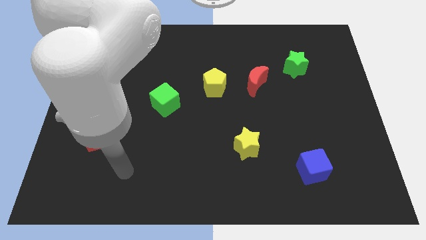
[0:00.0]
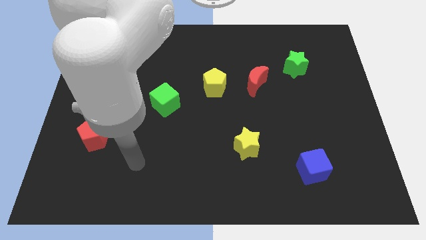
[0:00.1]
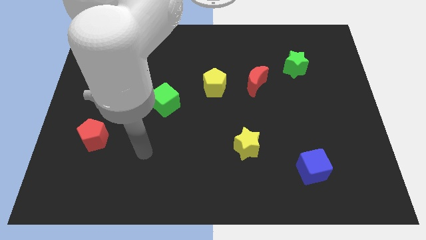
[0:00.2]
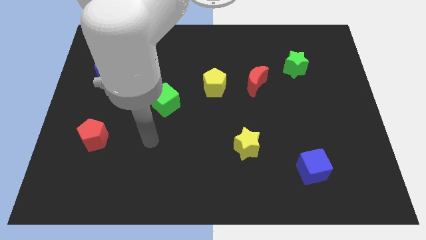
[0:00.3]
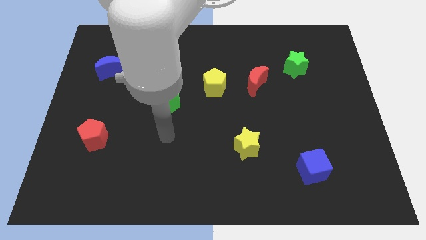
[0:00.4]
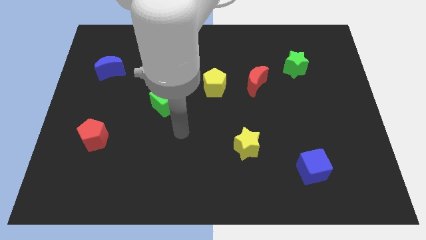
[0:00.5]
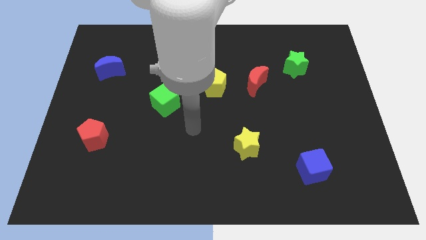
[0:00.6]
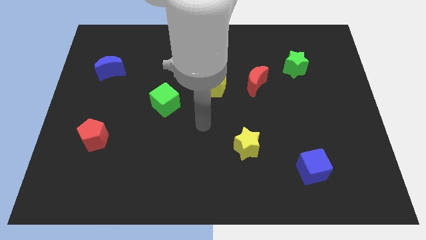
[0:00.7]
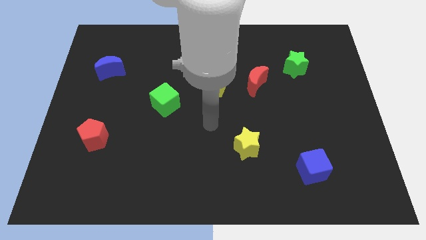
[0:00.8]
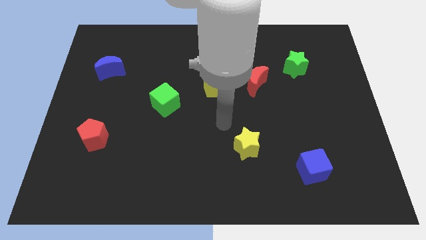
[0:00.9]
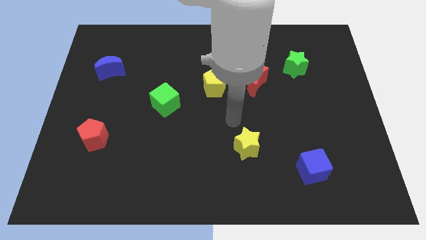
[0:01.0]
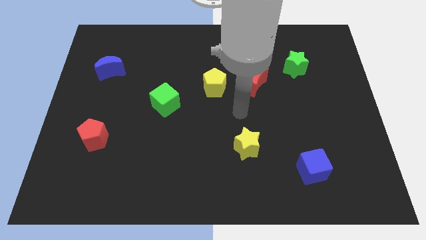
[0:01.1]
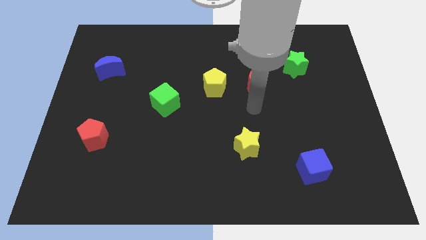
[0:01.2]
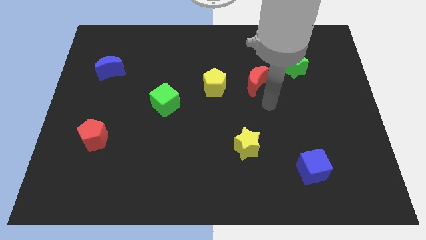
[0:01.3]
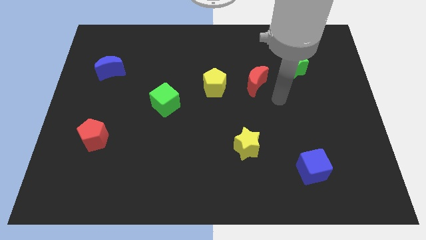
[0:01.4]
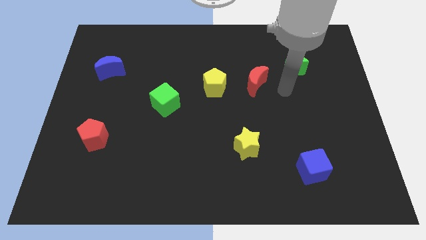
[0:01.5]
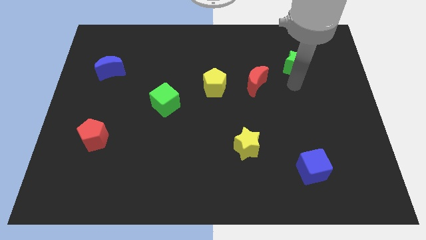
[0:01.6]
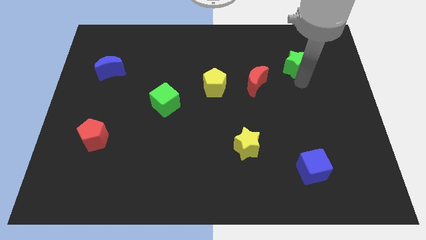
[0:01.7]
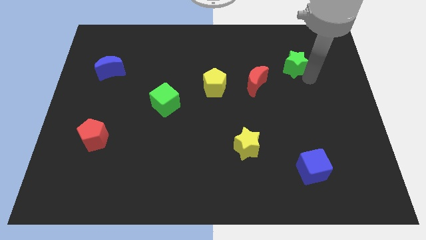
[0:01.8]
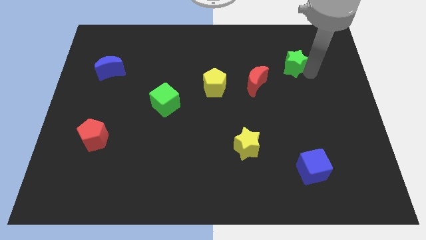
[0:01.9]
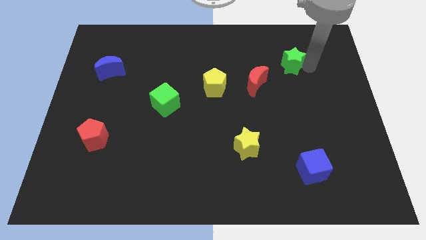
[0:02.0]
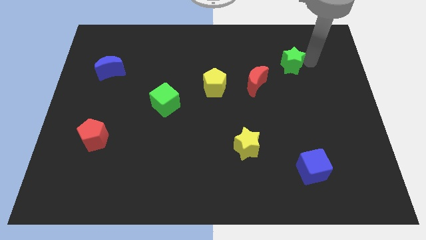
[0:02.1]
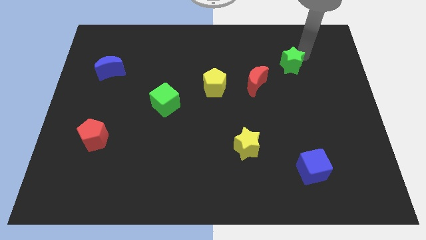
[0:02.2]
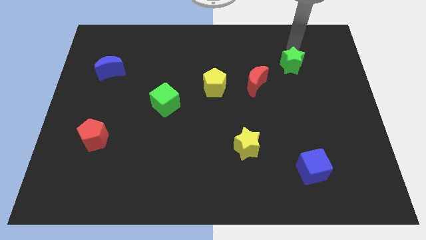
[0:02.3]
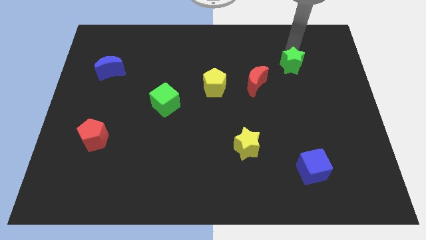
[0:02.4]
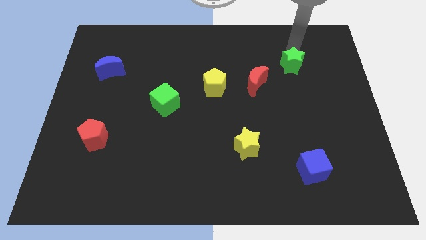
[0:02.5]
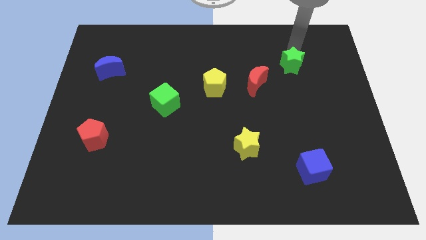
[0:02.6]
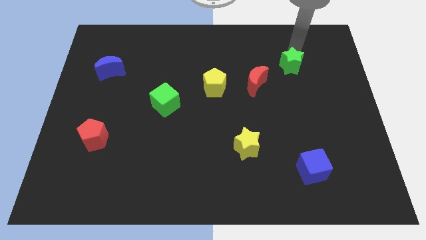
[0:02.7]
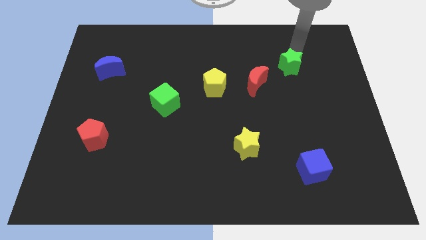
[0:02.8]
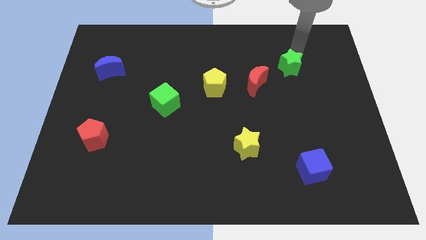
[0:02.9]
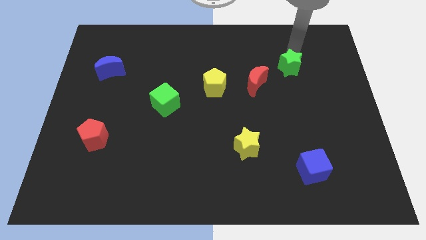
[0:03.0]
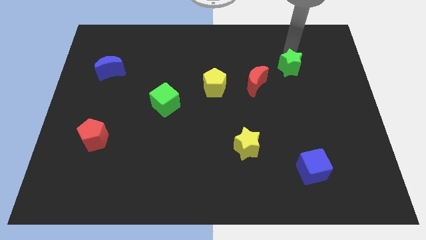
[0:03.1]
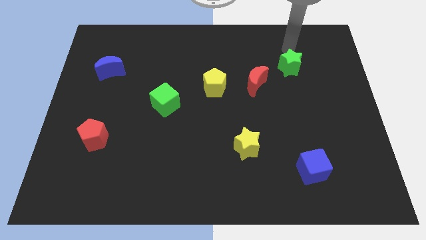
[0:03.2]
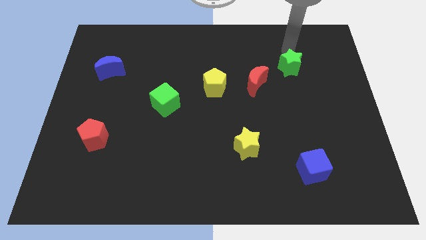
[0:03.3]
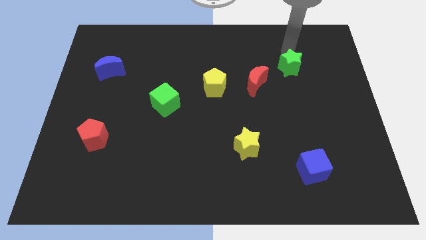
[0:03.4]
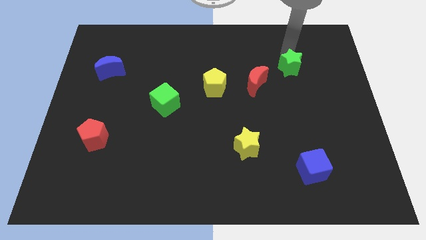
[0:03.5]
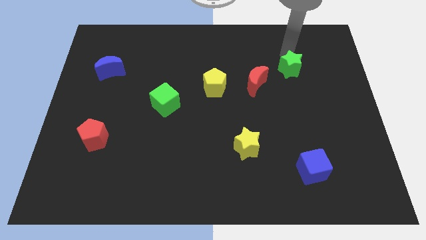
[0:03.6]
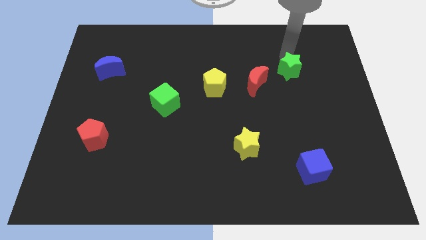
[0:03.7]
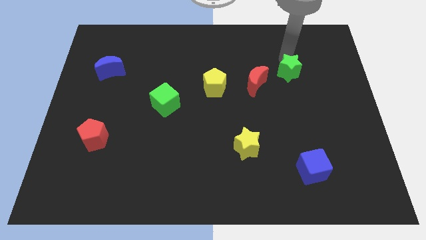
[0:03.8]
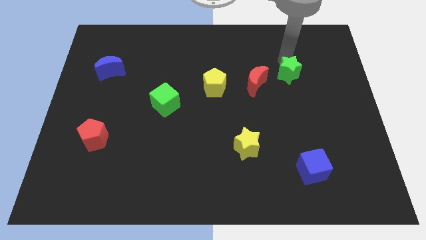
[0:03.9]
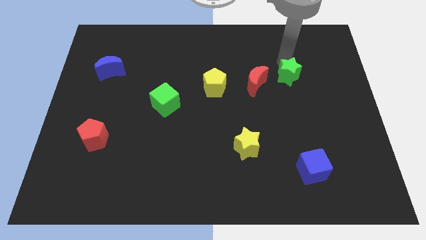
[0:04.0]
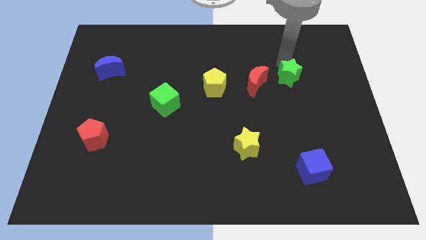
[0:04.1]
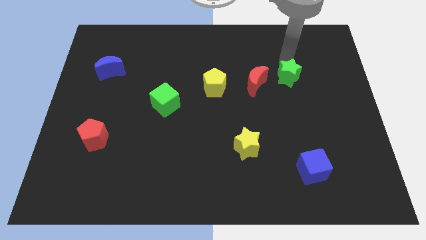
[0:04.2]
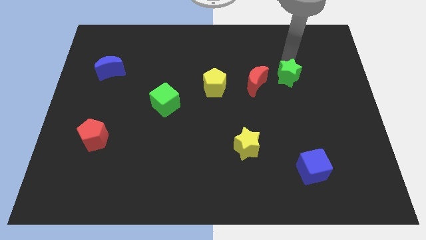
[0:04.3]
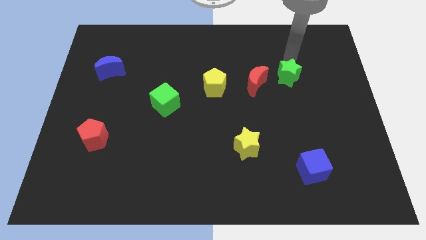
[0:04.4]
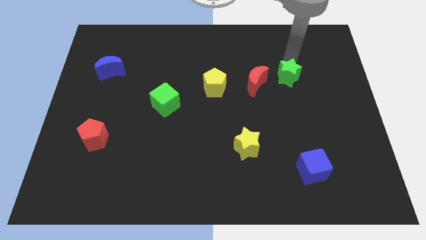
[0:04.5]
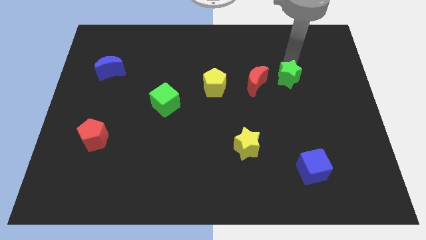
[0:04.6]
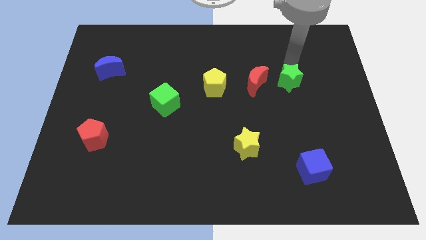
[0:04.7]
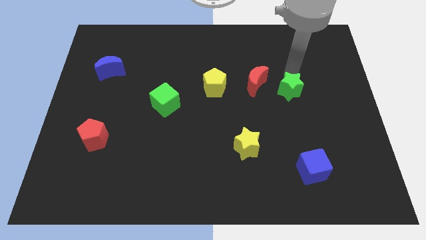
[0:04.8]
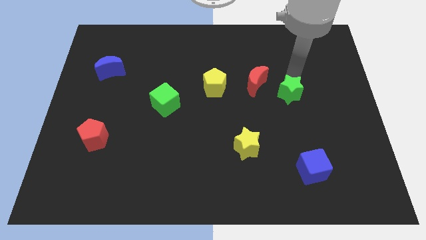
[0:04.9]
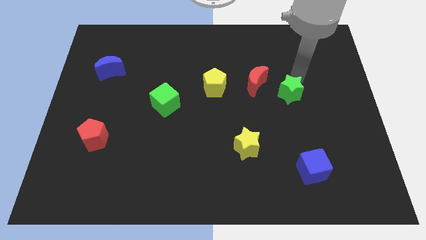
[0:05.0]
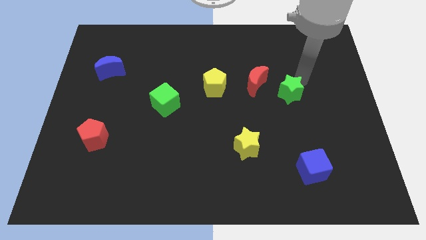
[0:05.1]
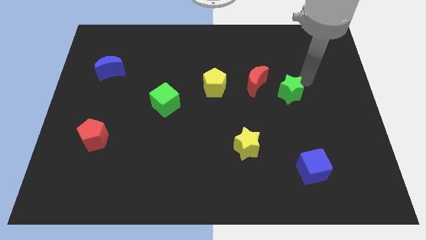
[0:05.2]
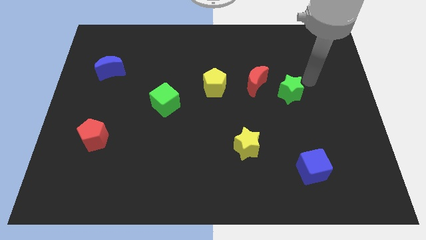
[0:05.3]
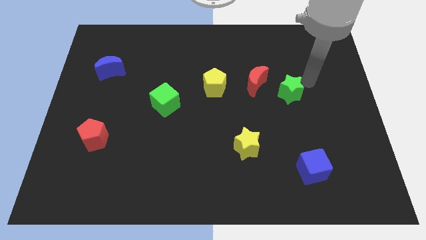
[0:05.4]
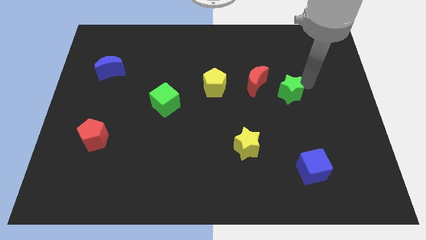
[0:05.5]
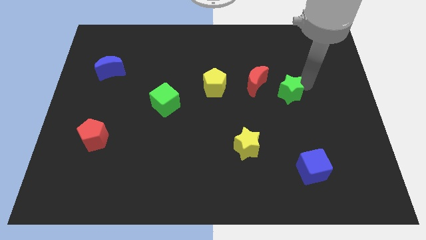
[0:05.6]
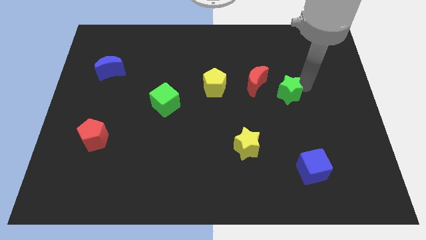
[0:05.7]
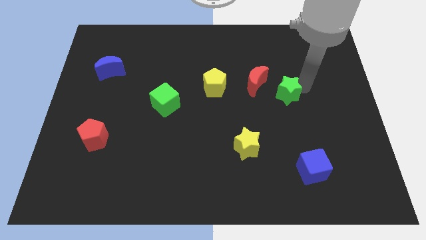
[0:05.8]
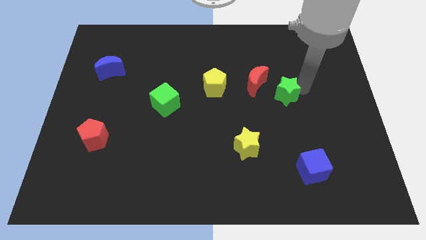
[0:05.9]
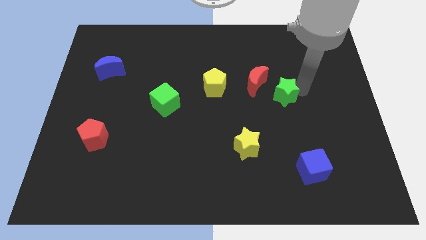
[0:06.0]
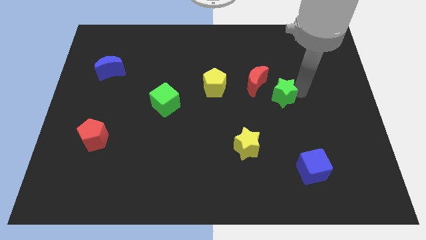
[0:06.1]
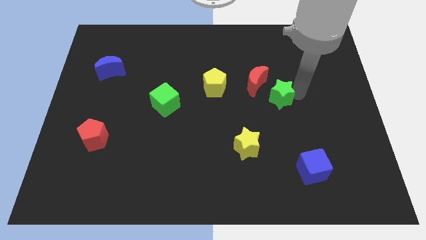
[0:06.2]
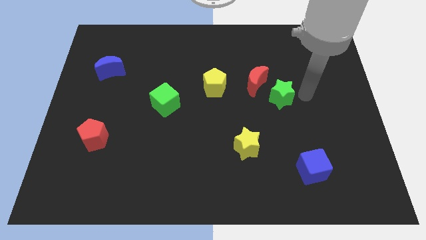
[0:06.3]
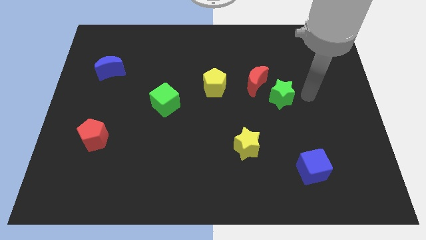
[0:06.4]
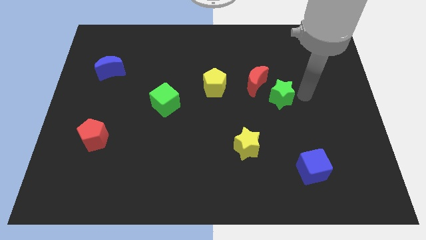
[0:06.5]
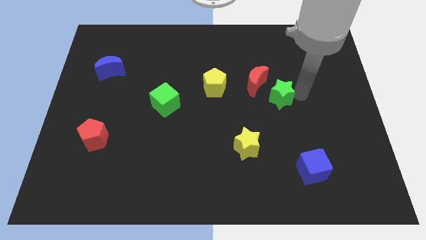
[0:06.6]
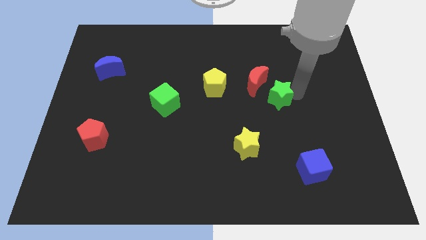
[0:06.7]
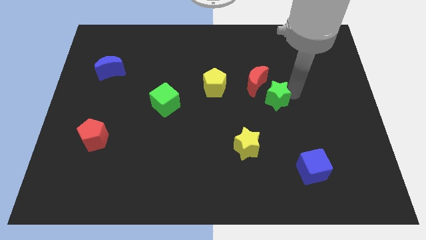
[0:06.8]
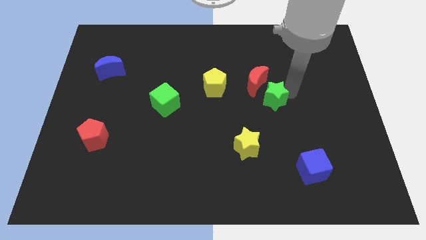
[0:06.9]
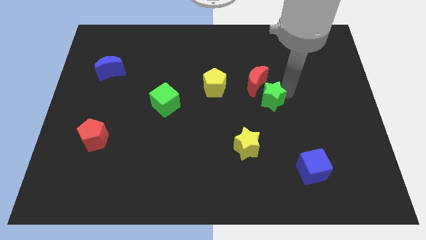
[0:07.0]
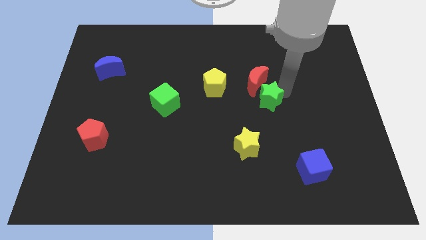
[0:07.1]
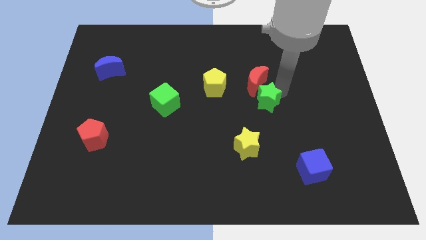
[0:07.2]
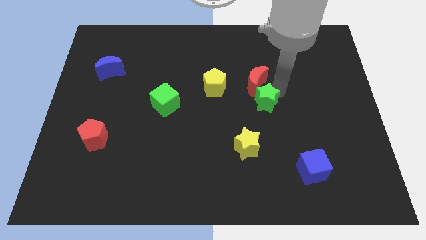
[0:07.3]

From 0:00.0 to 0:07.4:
push the green star to the center

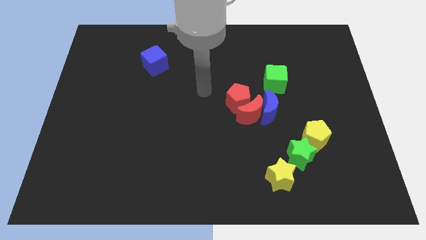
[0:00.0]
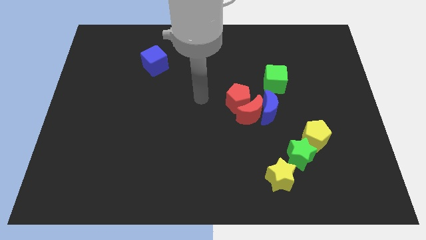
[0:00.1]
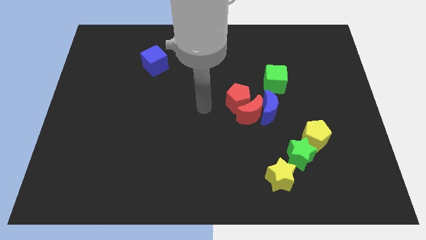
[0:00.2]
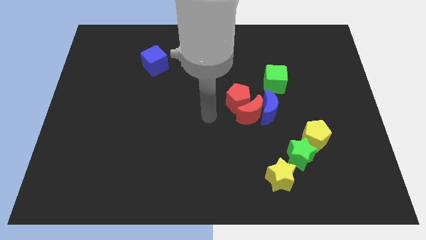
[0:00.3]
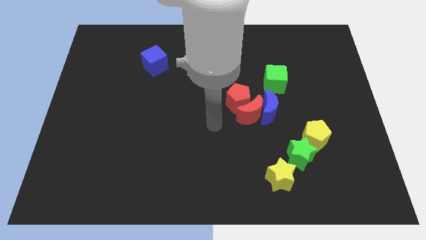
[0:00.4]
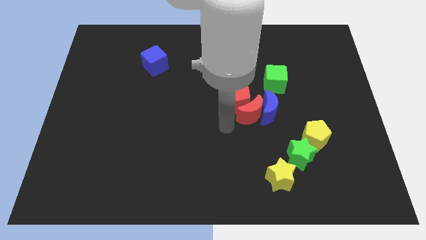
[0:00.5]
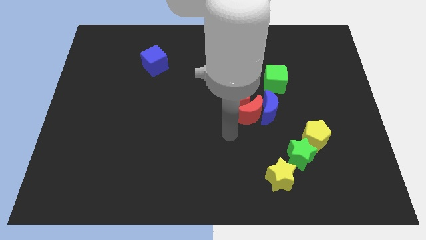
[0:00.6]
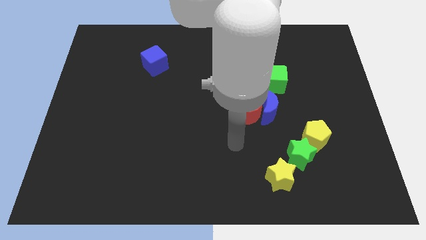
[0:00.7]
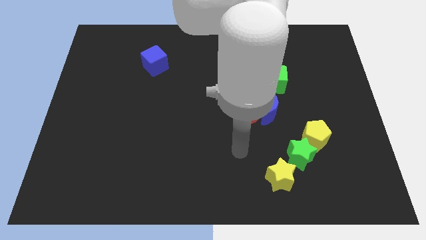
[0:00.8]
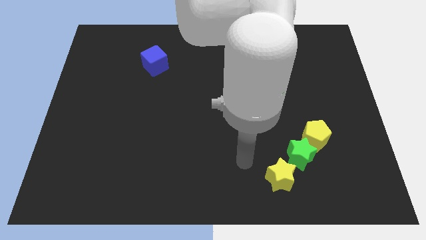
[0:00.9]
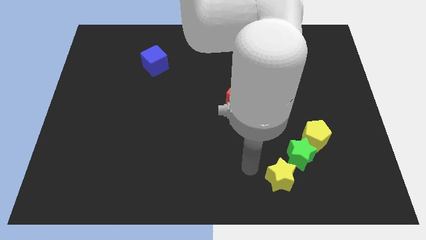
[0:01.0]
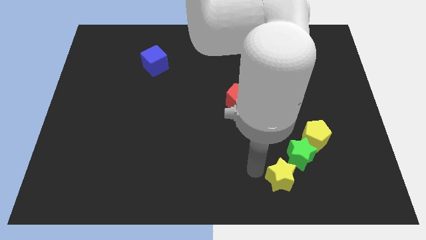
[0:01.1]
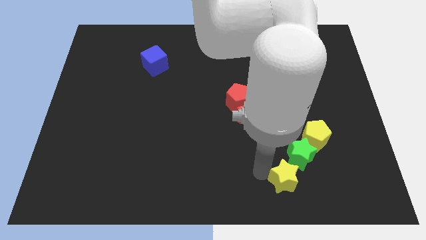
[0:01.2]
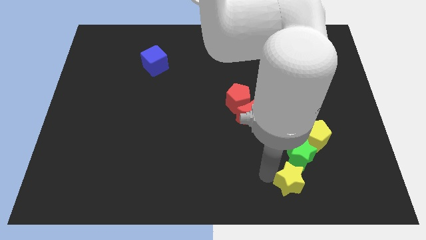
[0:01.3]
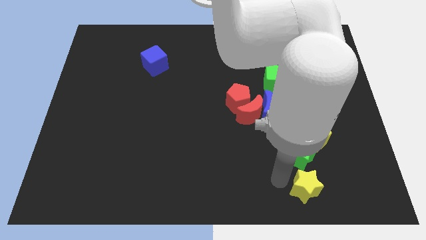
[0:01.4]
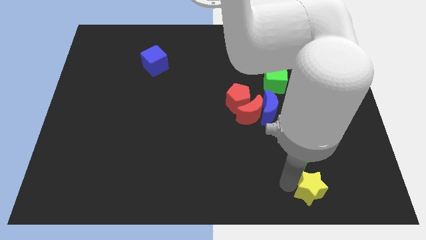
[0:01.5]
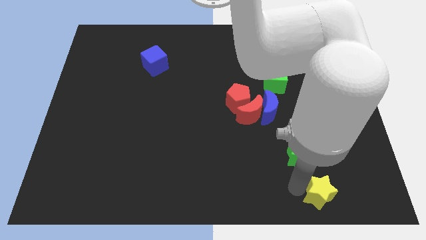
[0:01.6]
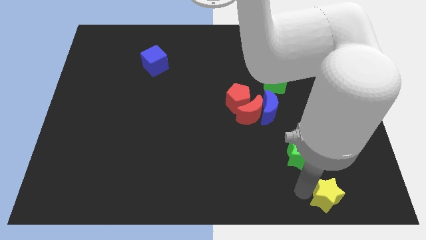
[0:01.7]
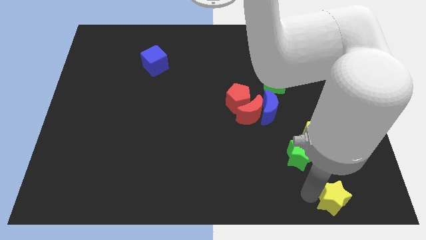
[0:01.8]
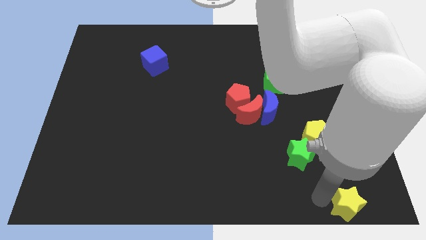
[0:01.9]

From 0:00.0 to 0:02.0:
move the yellow star to the bottom right of the board
